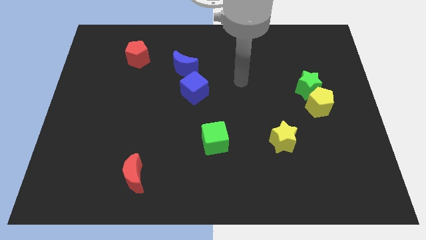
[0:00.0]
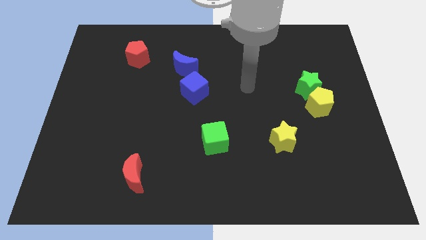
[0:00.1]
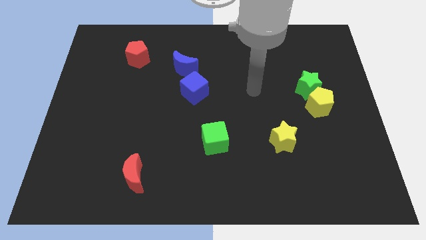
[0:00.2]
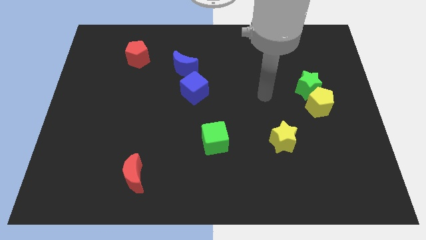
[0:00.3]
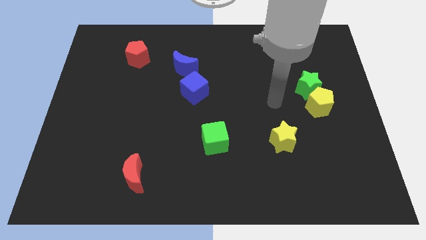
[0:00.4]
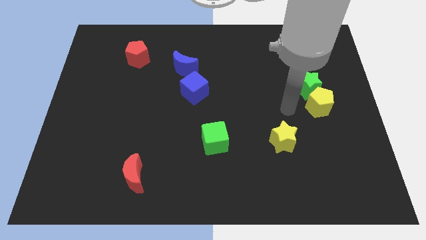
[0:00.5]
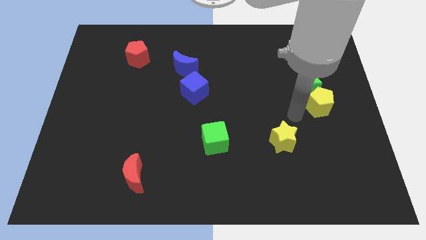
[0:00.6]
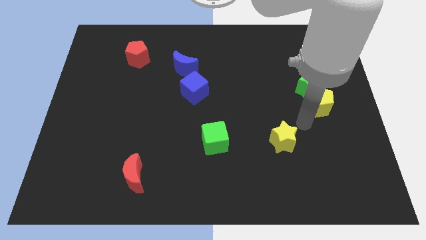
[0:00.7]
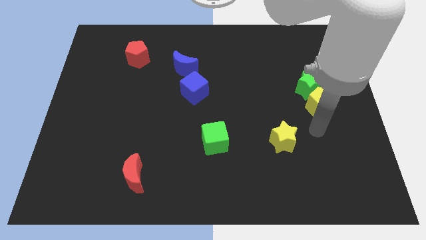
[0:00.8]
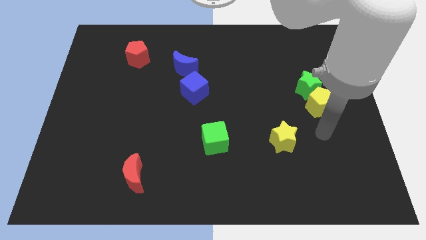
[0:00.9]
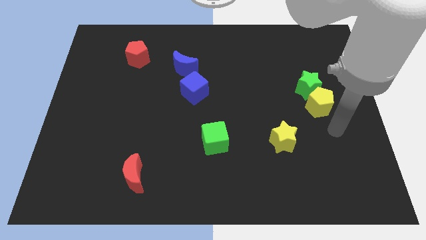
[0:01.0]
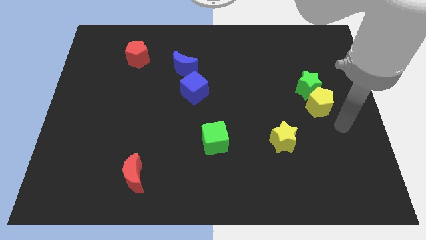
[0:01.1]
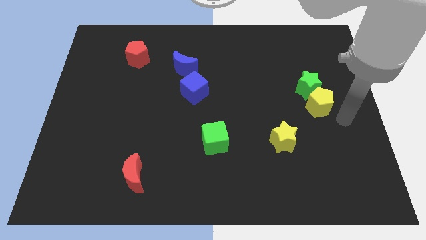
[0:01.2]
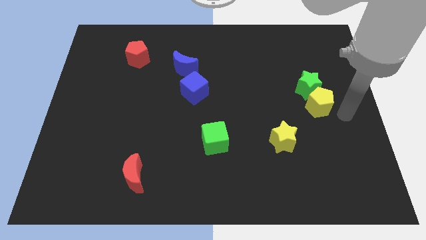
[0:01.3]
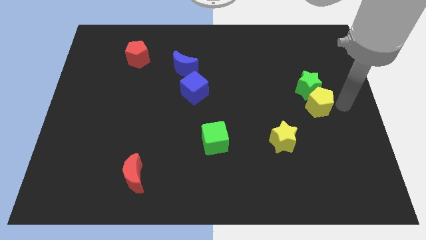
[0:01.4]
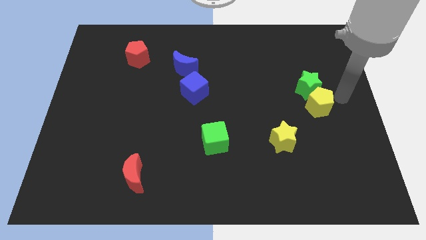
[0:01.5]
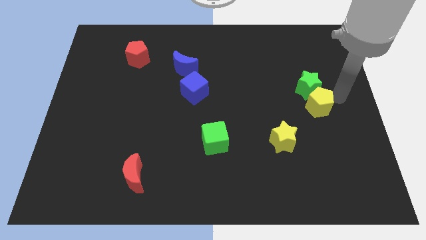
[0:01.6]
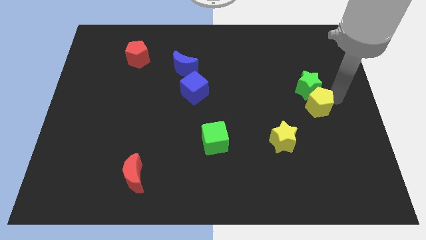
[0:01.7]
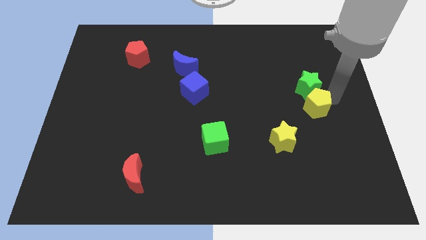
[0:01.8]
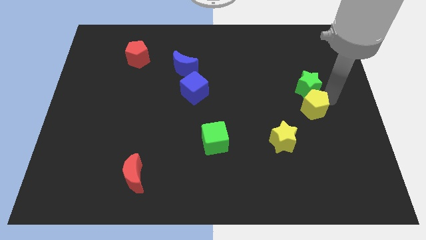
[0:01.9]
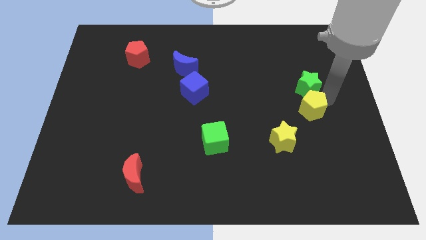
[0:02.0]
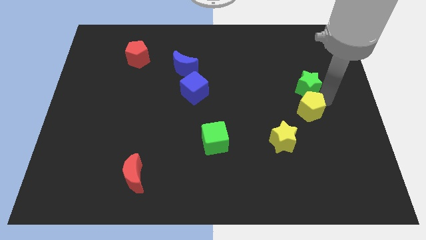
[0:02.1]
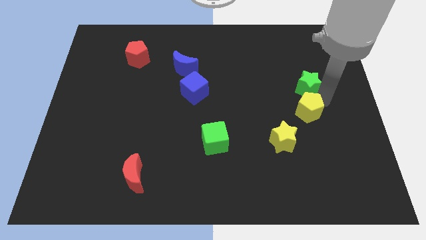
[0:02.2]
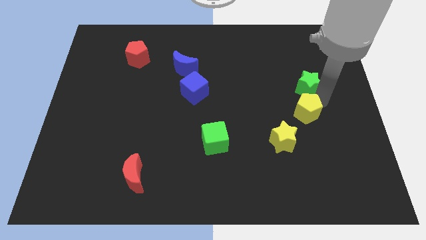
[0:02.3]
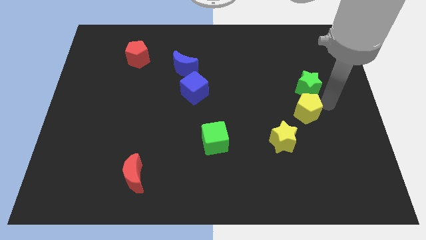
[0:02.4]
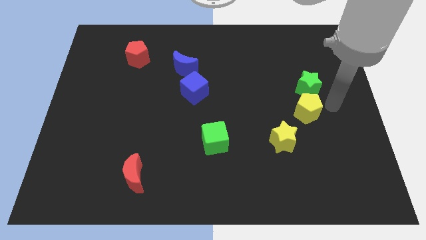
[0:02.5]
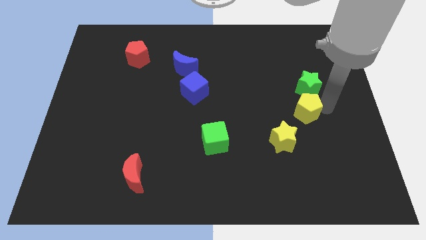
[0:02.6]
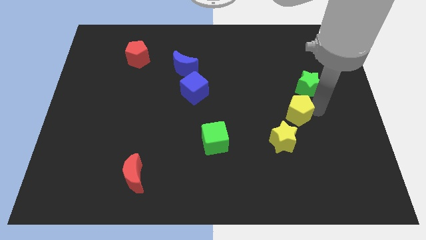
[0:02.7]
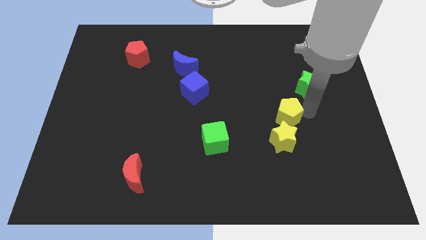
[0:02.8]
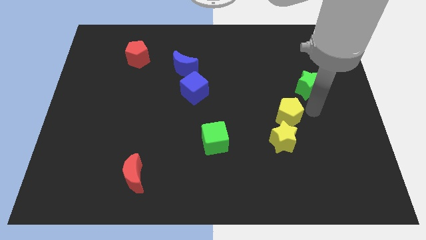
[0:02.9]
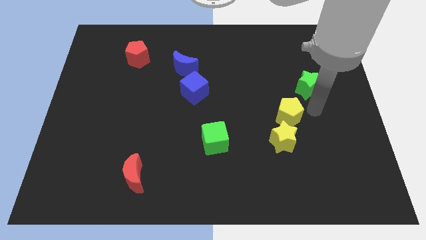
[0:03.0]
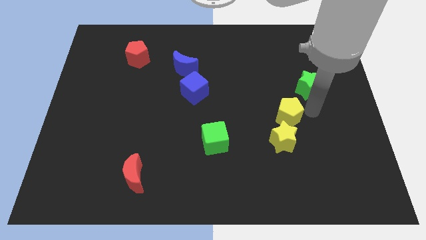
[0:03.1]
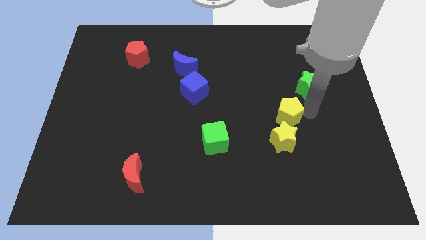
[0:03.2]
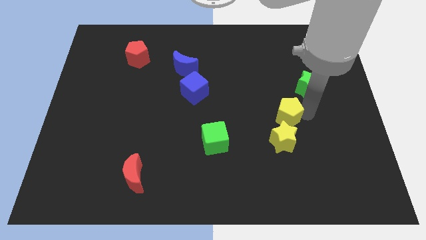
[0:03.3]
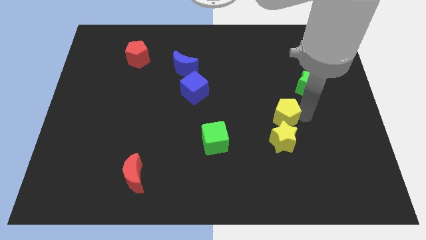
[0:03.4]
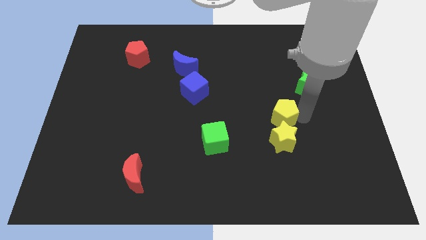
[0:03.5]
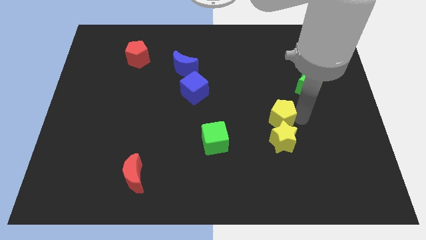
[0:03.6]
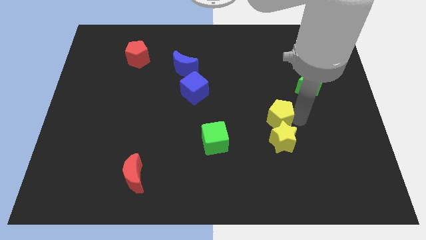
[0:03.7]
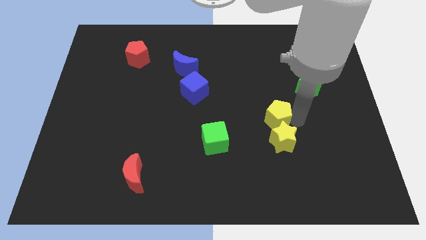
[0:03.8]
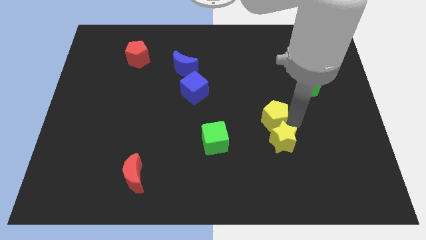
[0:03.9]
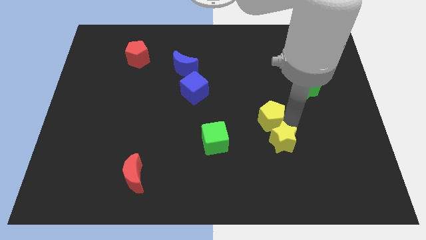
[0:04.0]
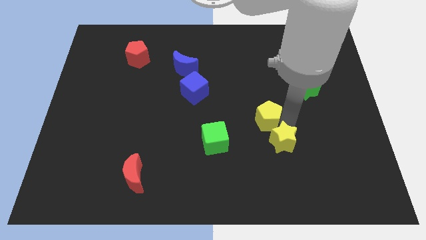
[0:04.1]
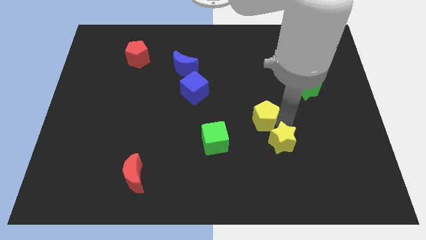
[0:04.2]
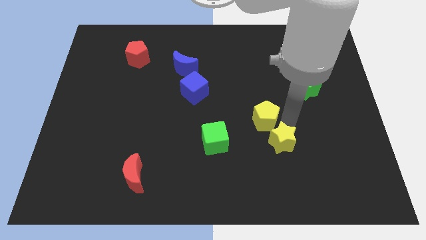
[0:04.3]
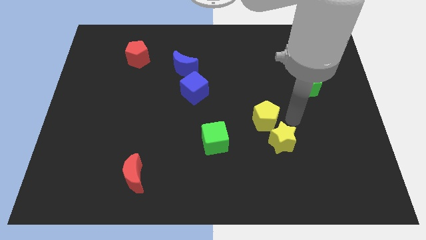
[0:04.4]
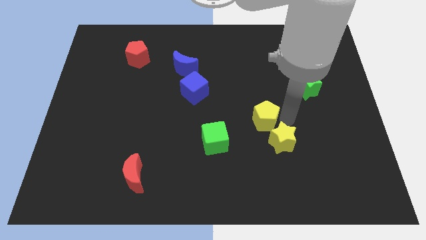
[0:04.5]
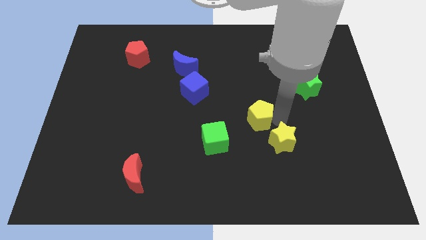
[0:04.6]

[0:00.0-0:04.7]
move the yellow pentagon to the top right of the green cube

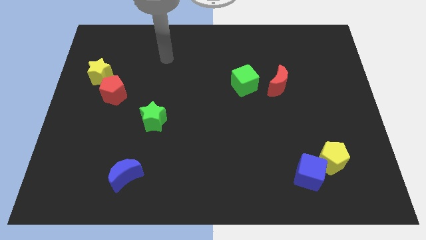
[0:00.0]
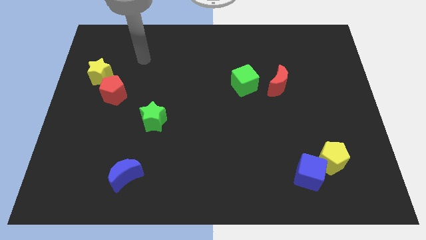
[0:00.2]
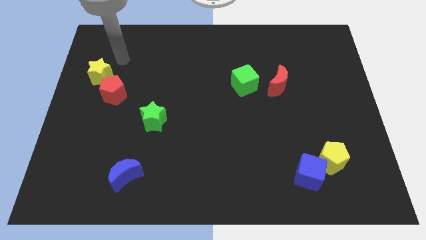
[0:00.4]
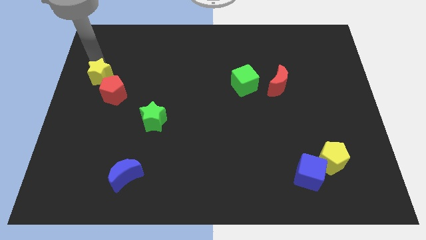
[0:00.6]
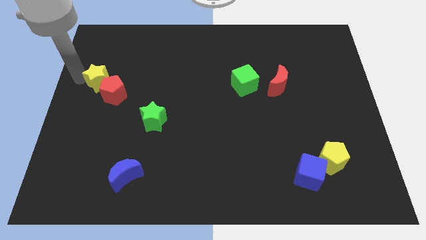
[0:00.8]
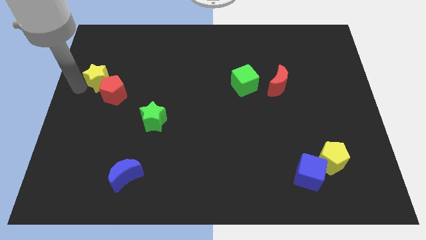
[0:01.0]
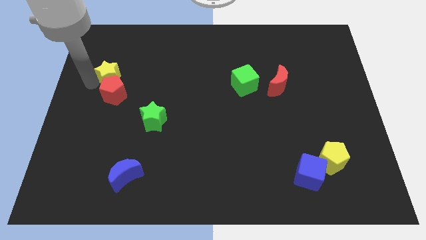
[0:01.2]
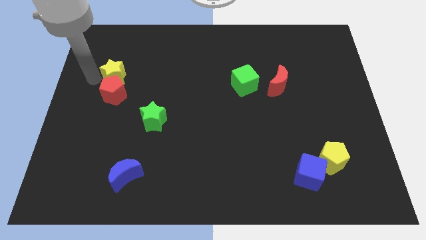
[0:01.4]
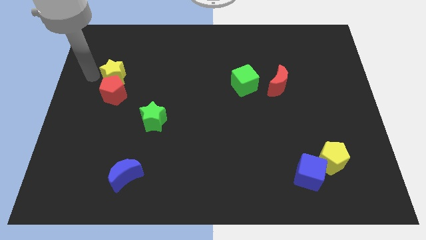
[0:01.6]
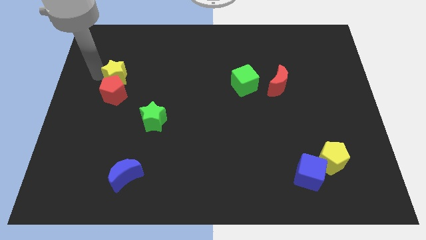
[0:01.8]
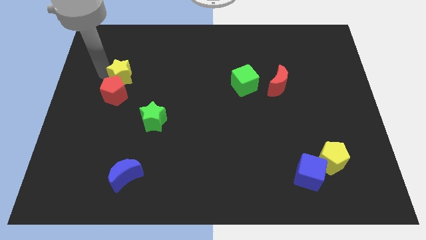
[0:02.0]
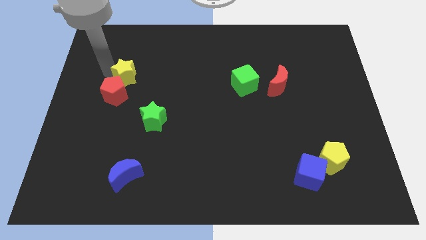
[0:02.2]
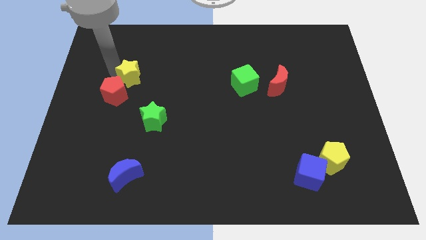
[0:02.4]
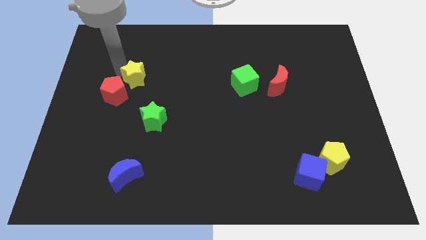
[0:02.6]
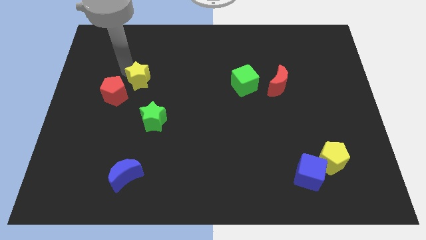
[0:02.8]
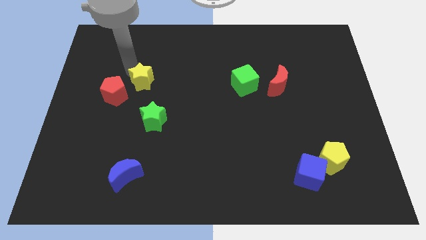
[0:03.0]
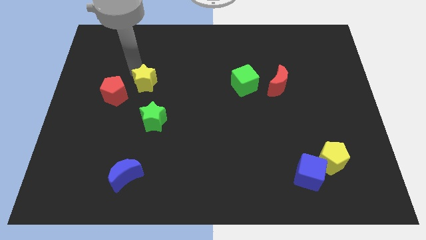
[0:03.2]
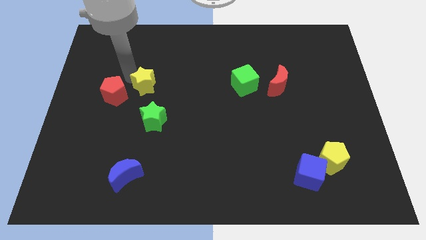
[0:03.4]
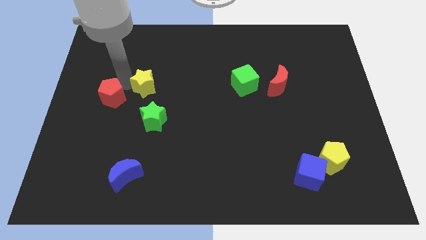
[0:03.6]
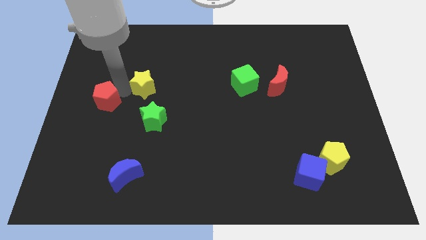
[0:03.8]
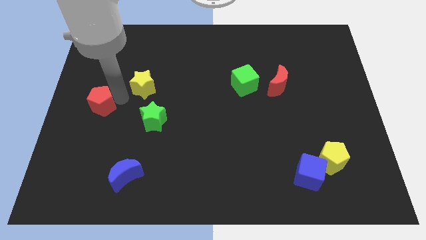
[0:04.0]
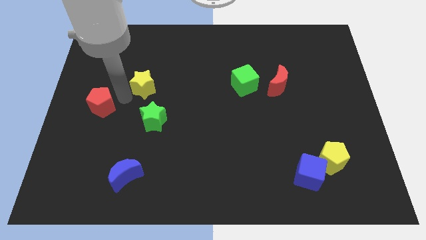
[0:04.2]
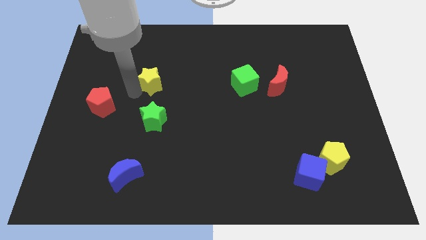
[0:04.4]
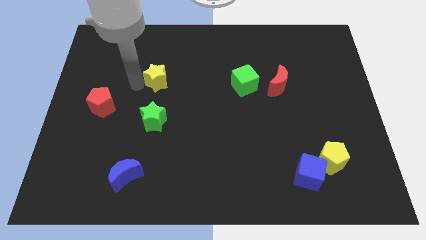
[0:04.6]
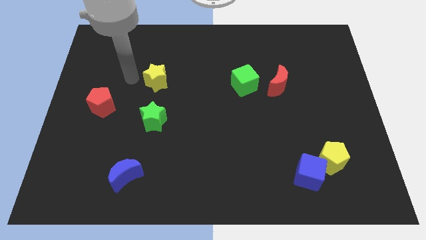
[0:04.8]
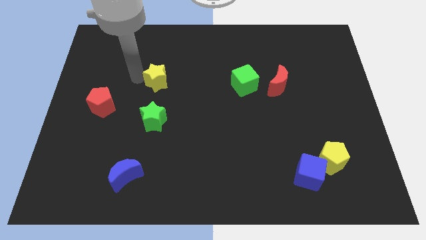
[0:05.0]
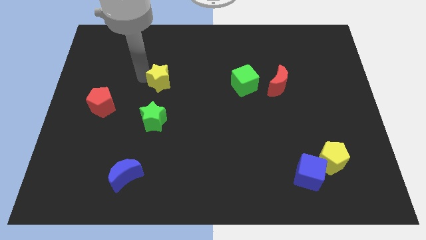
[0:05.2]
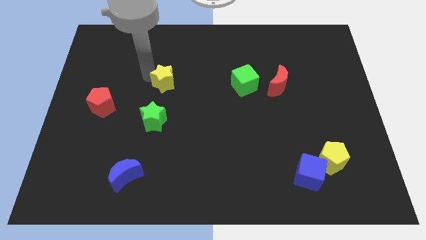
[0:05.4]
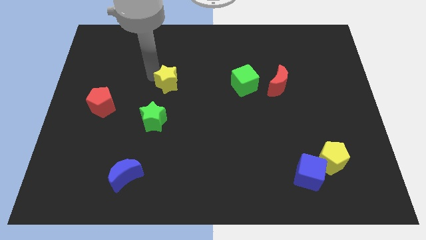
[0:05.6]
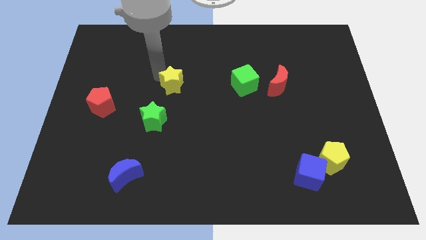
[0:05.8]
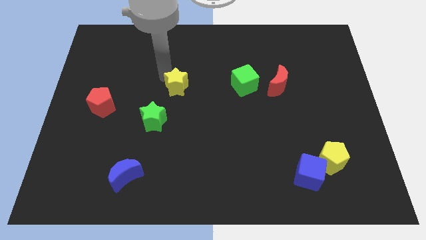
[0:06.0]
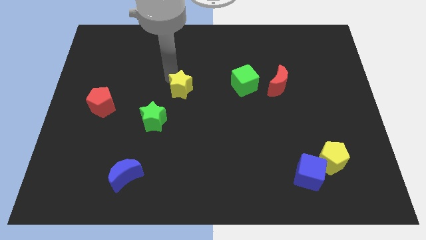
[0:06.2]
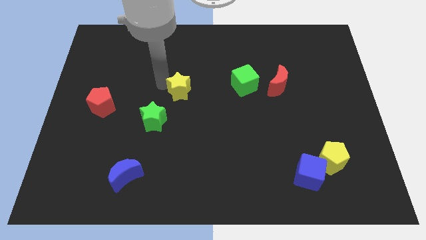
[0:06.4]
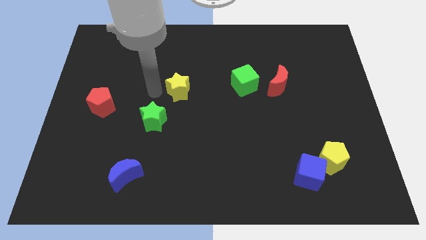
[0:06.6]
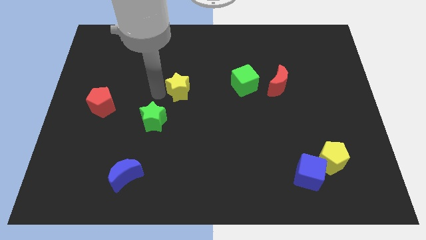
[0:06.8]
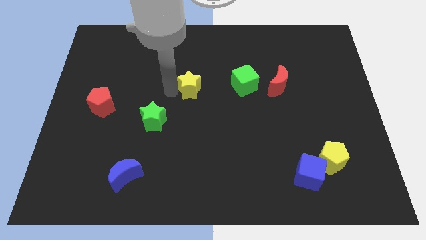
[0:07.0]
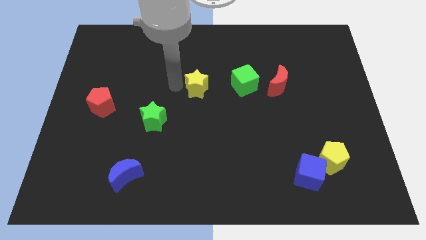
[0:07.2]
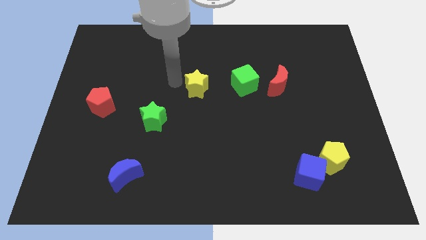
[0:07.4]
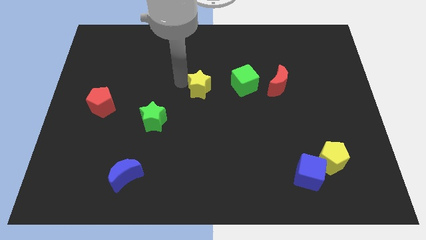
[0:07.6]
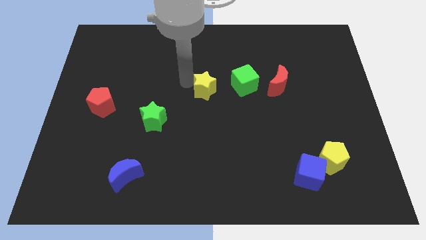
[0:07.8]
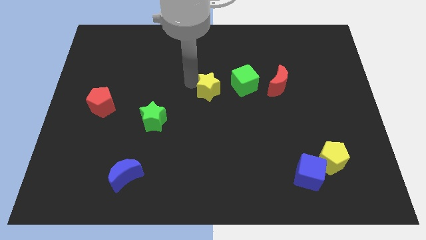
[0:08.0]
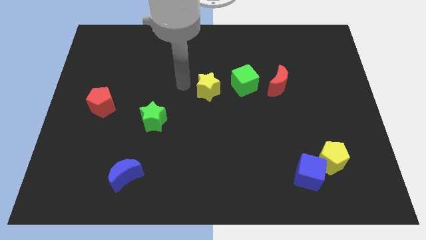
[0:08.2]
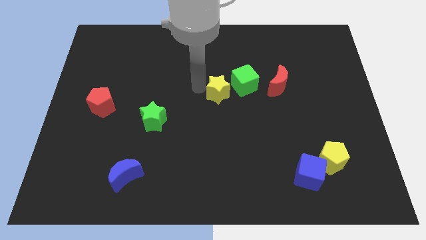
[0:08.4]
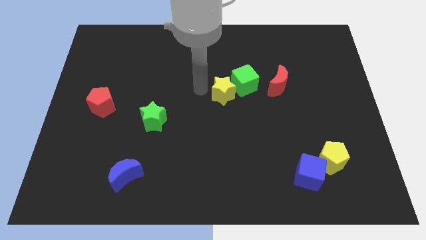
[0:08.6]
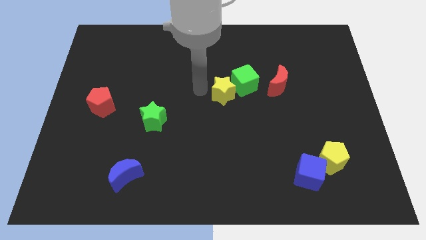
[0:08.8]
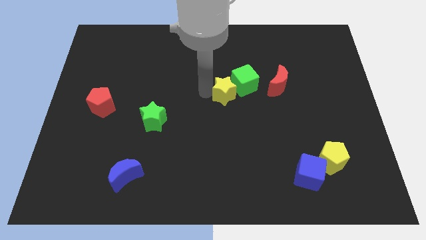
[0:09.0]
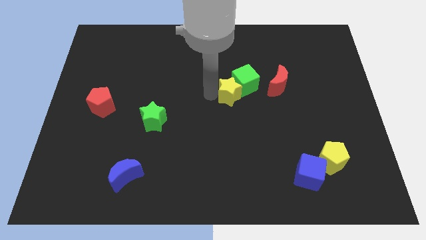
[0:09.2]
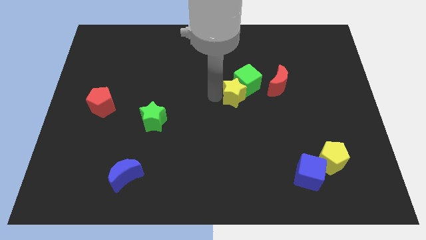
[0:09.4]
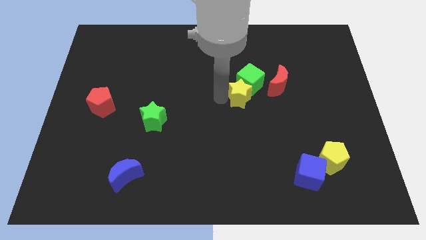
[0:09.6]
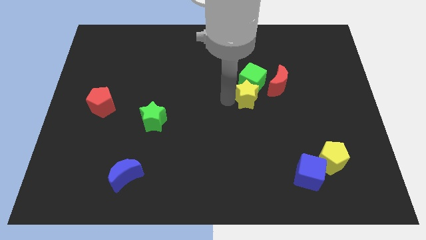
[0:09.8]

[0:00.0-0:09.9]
move the yellow star to the bottom right side of the green cube
